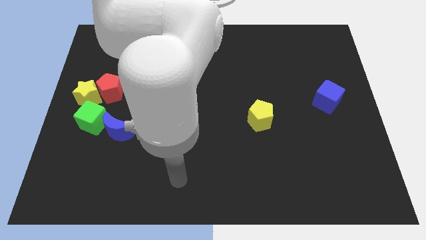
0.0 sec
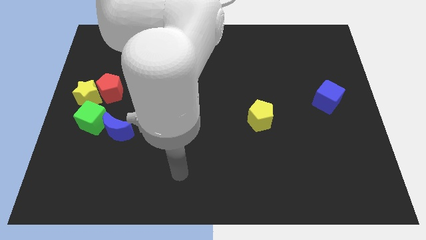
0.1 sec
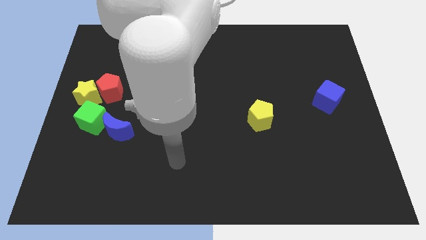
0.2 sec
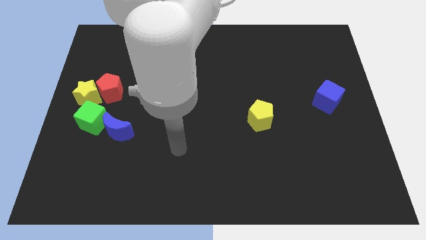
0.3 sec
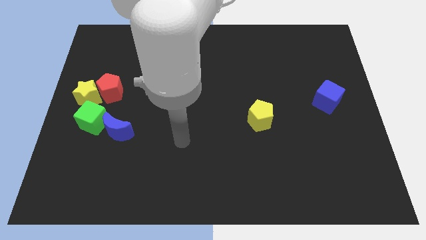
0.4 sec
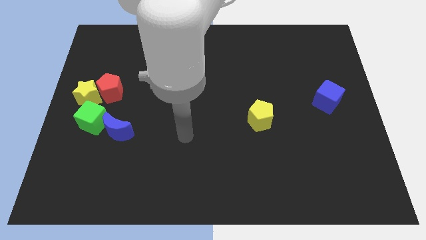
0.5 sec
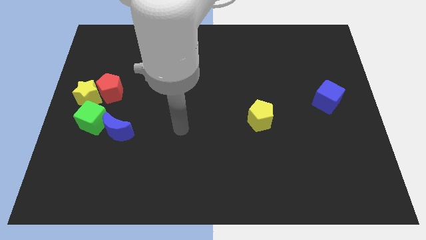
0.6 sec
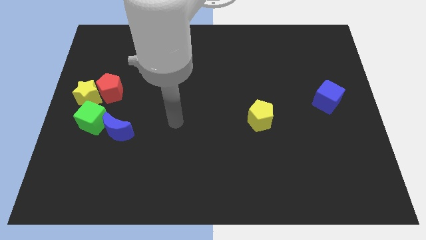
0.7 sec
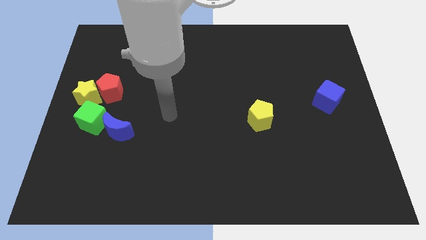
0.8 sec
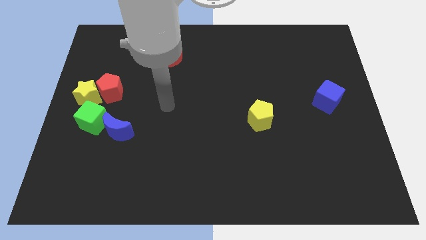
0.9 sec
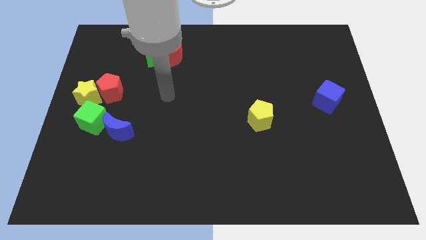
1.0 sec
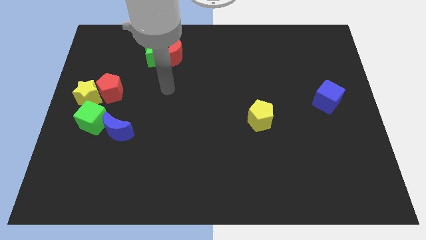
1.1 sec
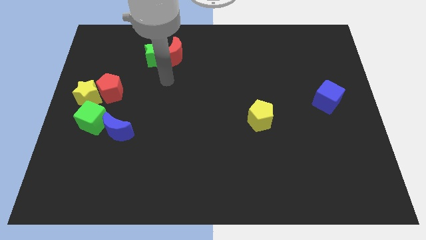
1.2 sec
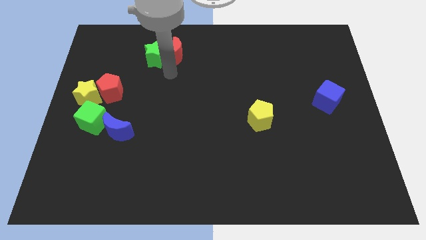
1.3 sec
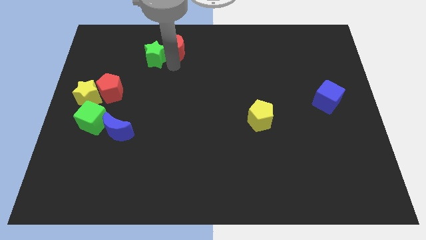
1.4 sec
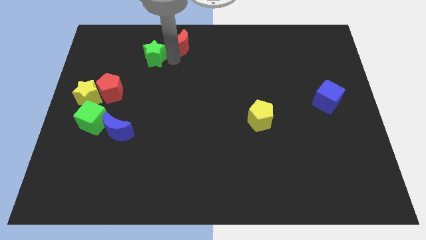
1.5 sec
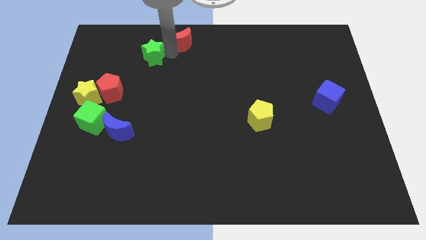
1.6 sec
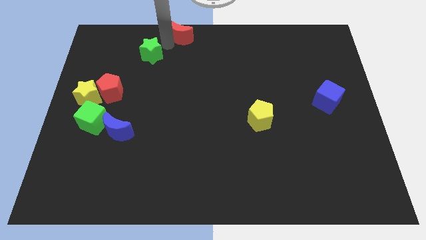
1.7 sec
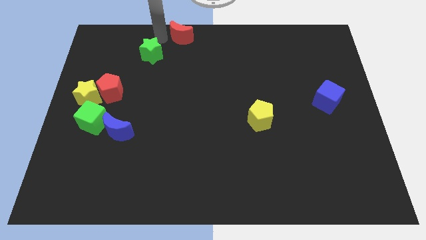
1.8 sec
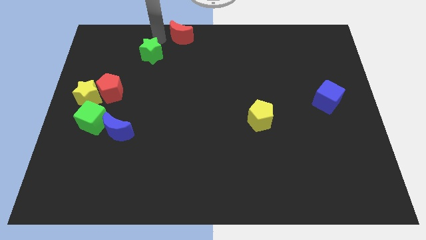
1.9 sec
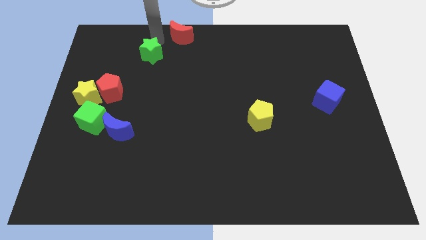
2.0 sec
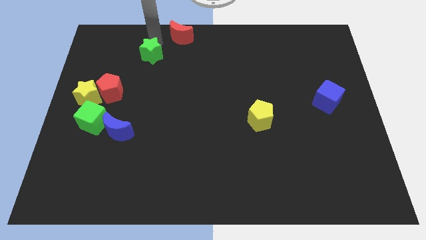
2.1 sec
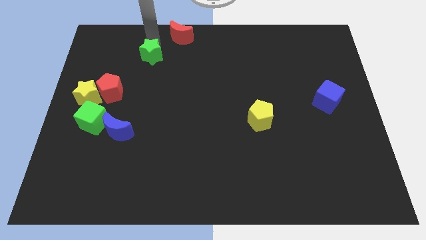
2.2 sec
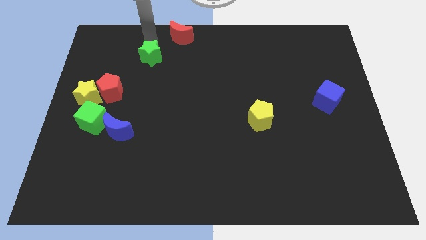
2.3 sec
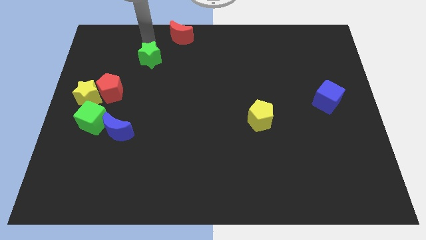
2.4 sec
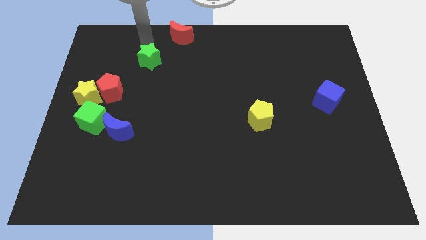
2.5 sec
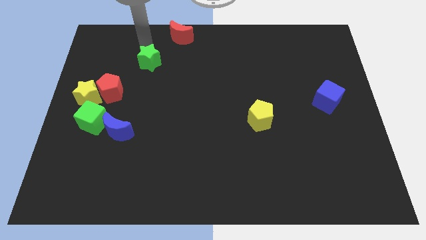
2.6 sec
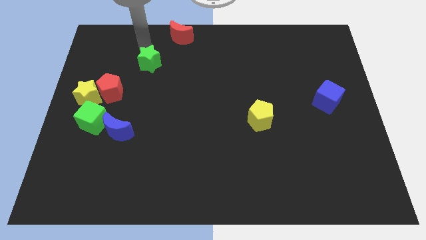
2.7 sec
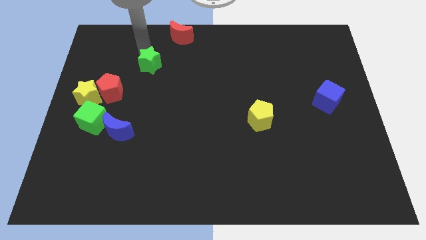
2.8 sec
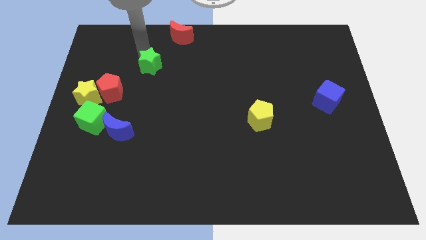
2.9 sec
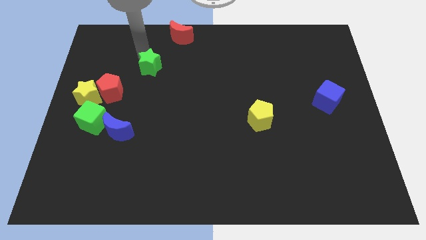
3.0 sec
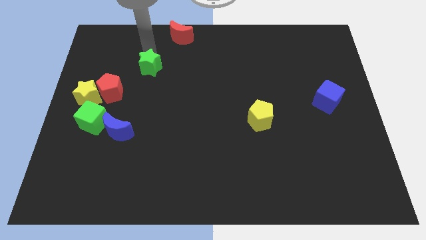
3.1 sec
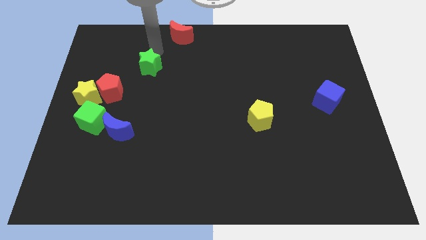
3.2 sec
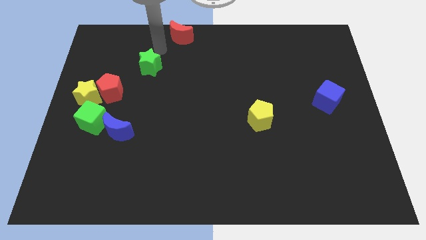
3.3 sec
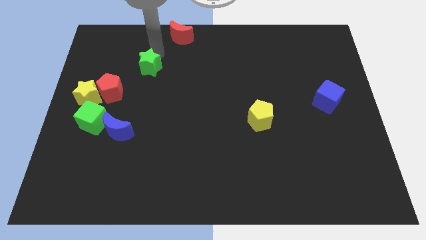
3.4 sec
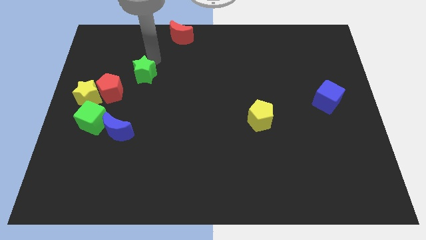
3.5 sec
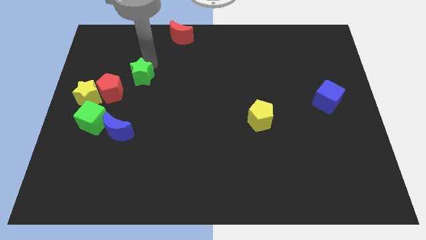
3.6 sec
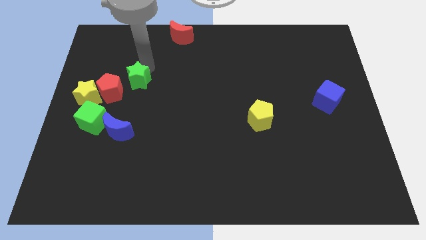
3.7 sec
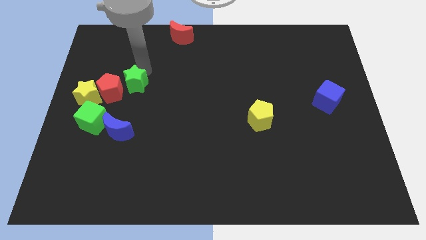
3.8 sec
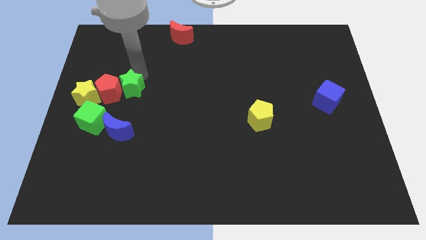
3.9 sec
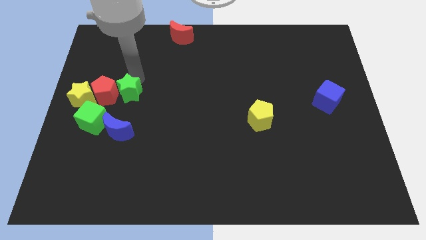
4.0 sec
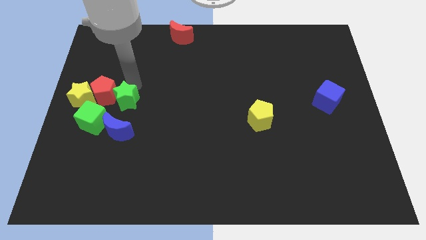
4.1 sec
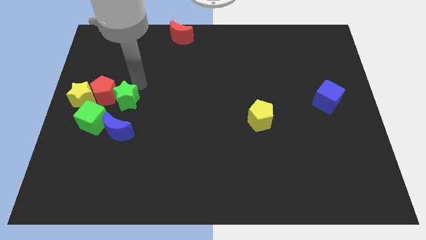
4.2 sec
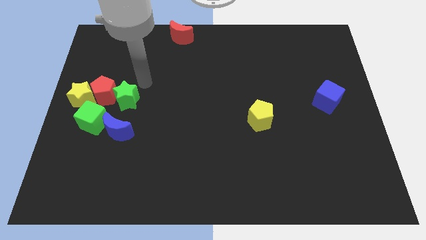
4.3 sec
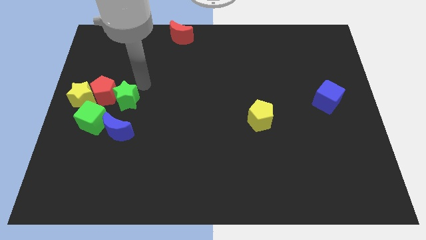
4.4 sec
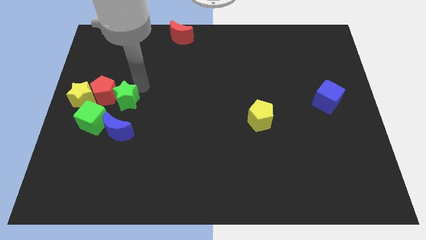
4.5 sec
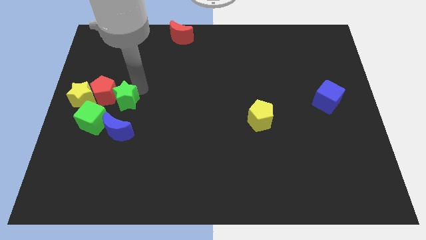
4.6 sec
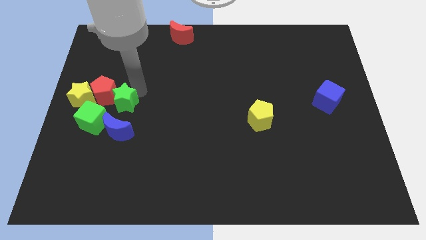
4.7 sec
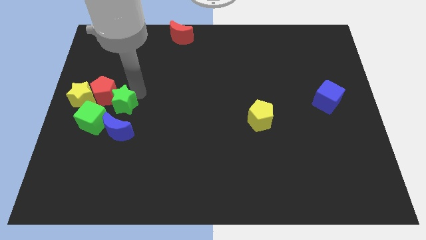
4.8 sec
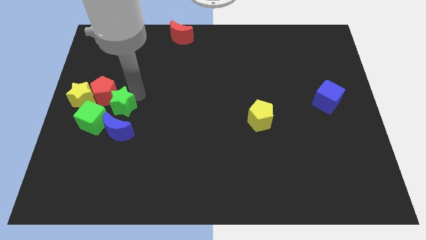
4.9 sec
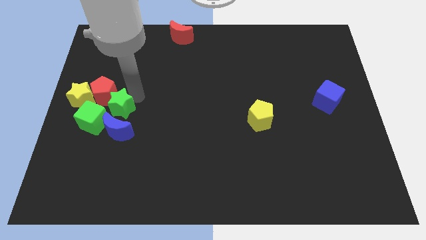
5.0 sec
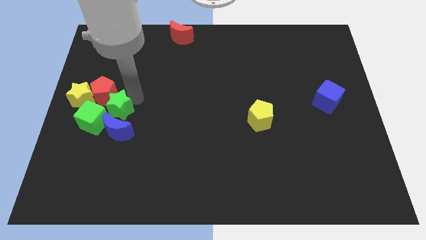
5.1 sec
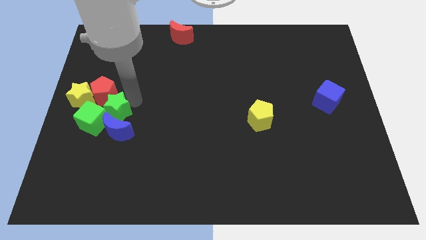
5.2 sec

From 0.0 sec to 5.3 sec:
move the green star next to the green cube

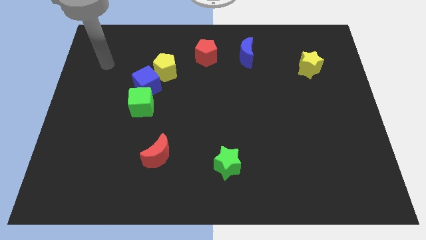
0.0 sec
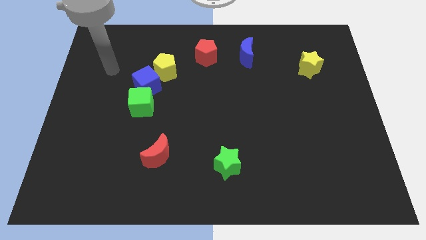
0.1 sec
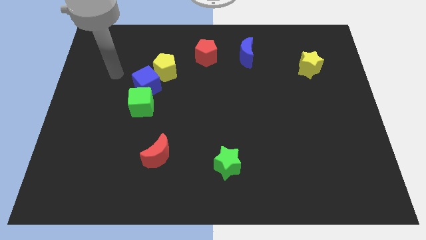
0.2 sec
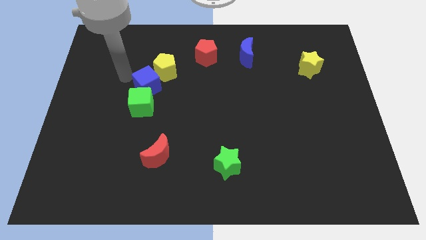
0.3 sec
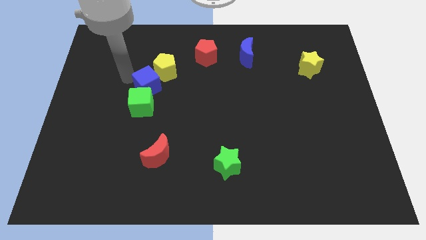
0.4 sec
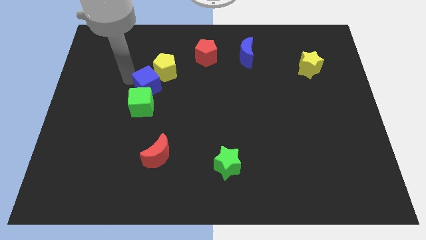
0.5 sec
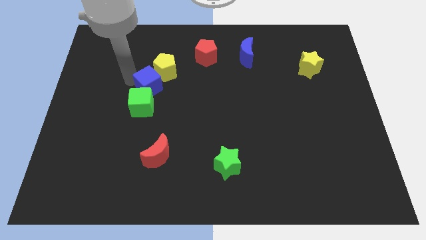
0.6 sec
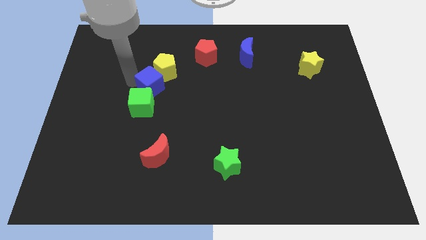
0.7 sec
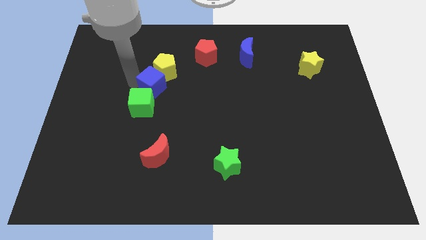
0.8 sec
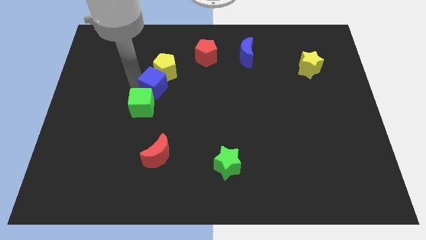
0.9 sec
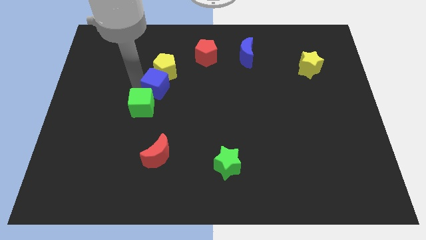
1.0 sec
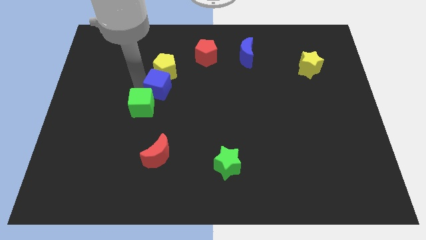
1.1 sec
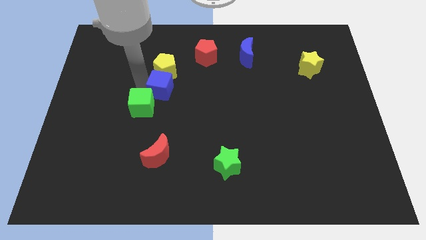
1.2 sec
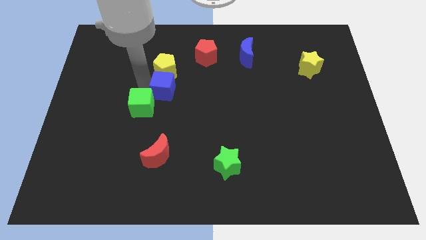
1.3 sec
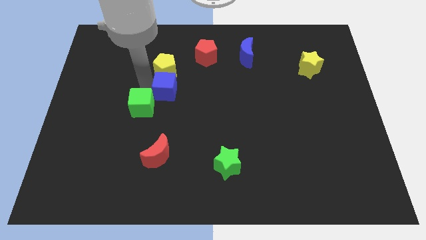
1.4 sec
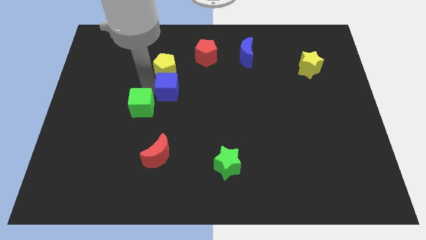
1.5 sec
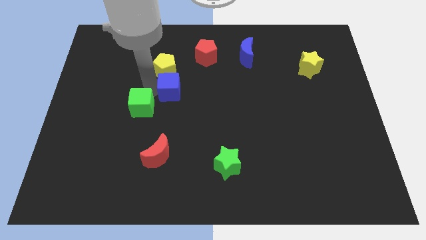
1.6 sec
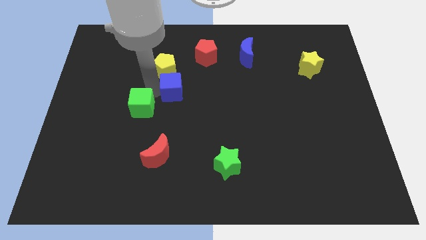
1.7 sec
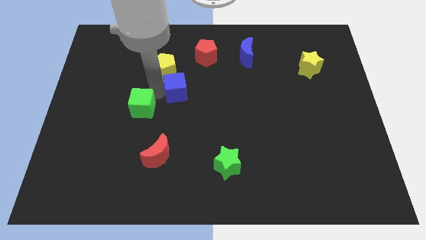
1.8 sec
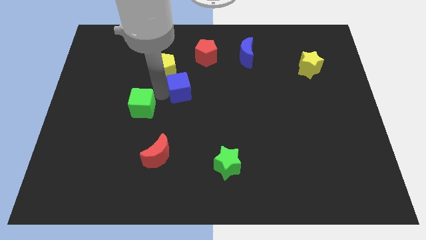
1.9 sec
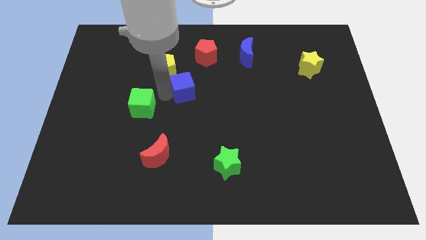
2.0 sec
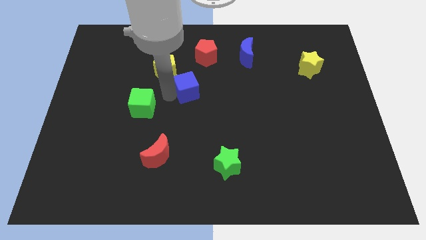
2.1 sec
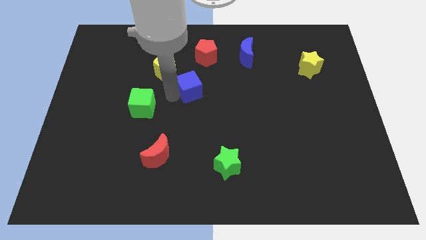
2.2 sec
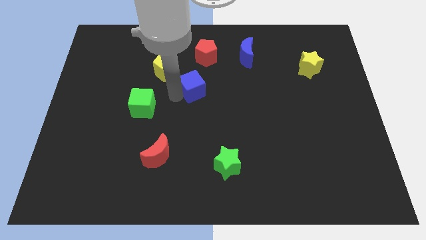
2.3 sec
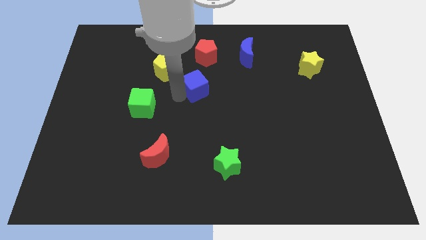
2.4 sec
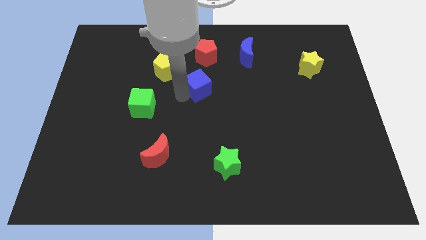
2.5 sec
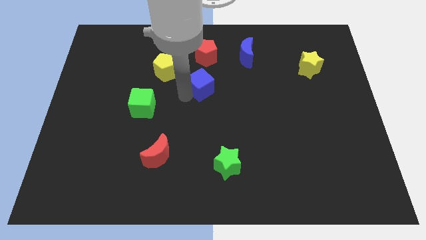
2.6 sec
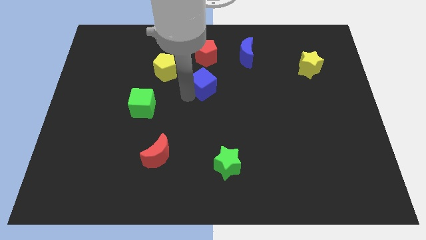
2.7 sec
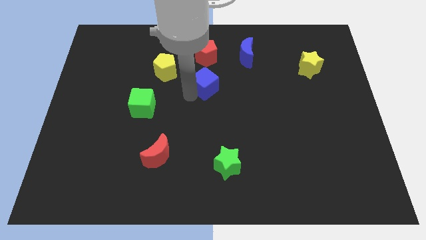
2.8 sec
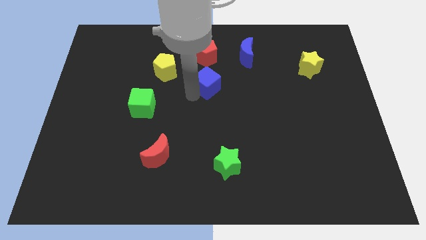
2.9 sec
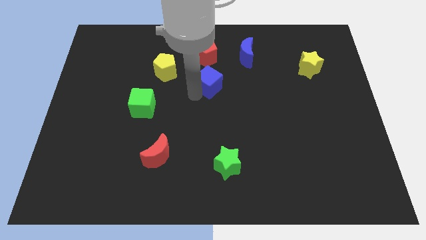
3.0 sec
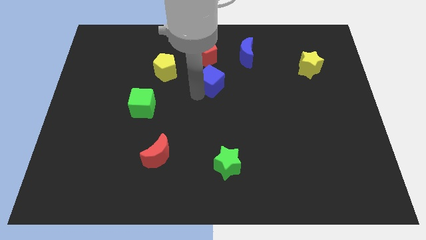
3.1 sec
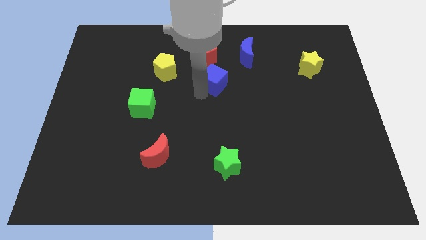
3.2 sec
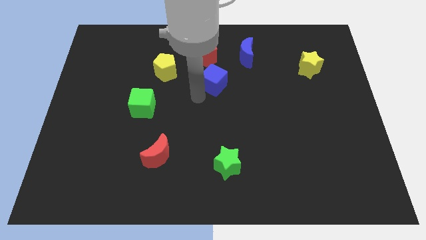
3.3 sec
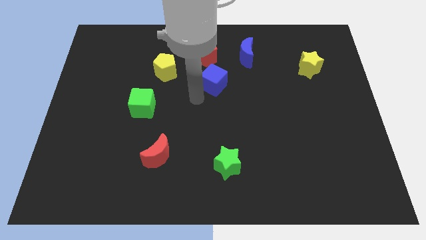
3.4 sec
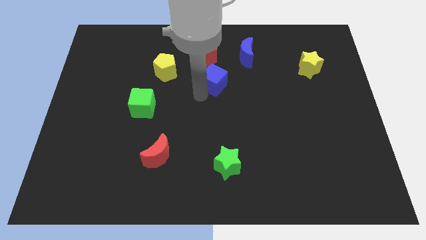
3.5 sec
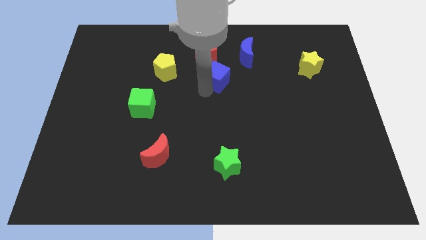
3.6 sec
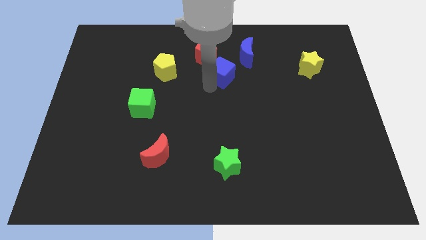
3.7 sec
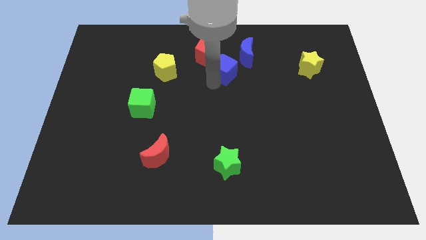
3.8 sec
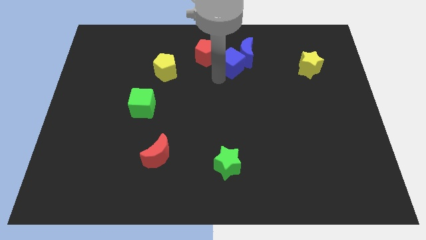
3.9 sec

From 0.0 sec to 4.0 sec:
slide the blue cube to the blue moon
